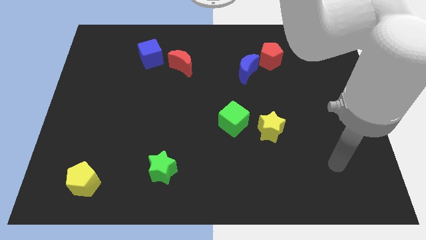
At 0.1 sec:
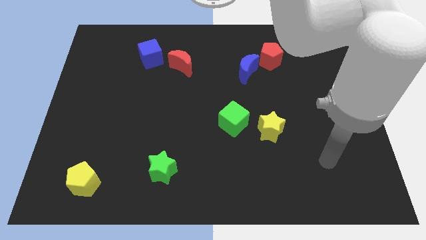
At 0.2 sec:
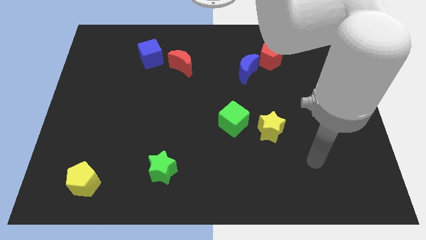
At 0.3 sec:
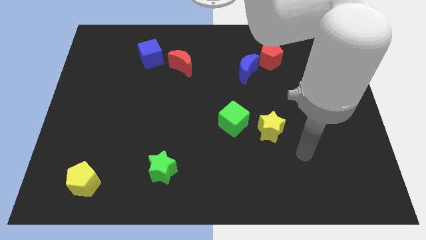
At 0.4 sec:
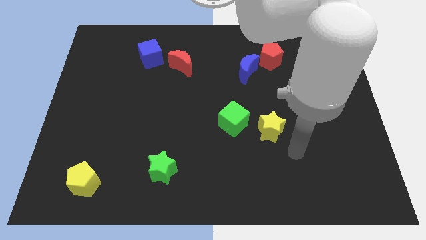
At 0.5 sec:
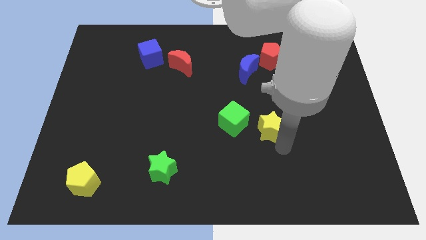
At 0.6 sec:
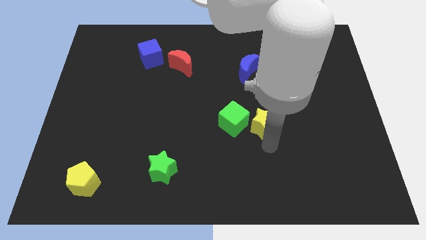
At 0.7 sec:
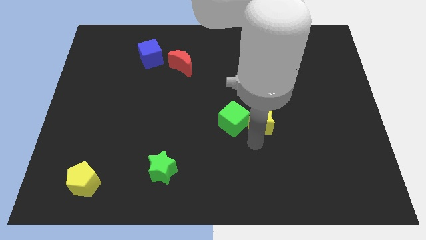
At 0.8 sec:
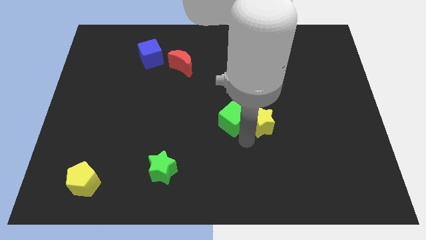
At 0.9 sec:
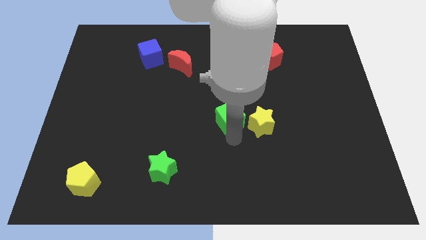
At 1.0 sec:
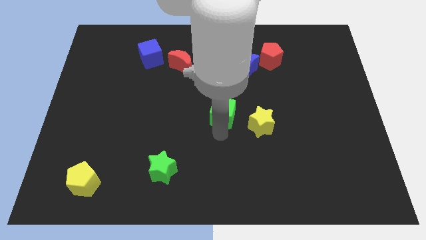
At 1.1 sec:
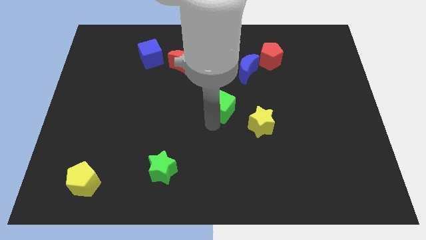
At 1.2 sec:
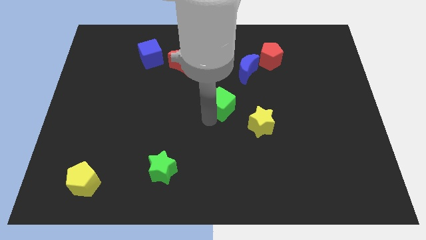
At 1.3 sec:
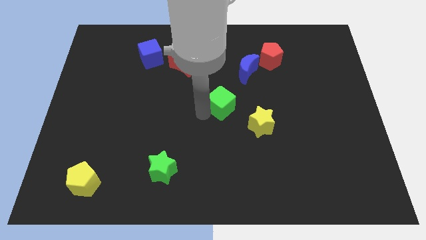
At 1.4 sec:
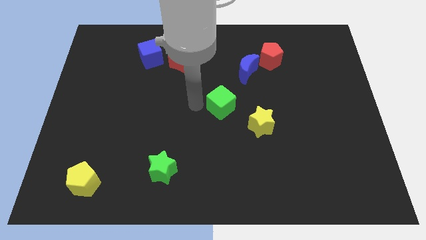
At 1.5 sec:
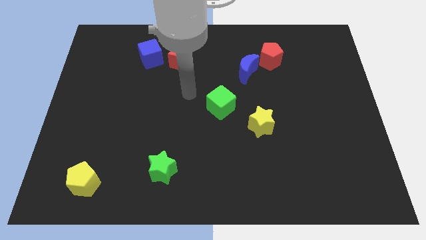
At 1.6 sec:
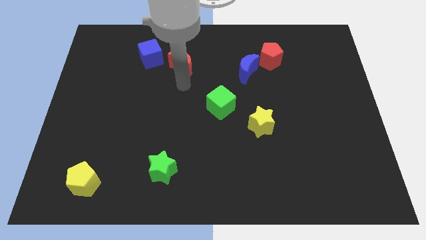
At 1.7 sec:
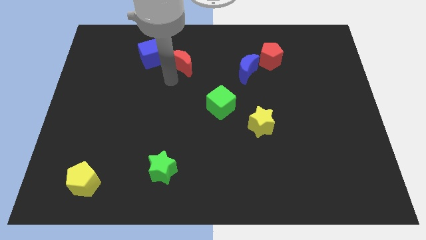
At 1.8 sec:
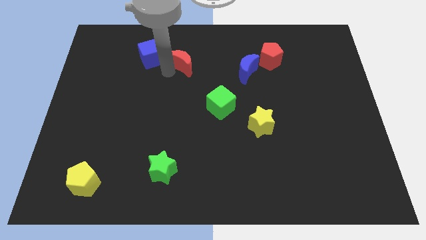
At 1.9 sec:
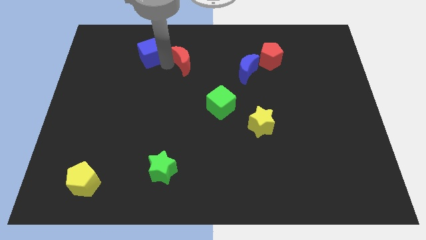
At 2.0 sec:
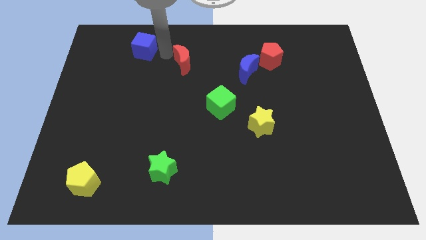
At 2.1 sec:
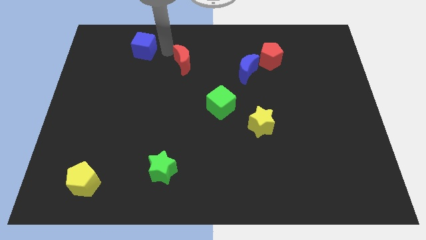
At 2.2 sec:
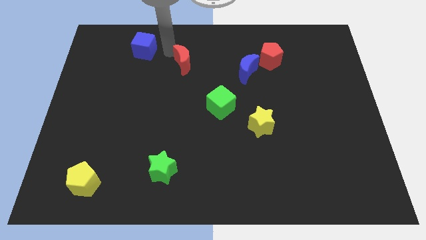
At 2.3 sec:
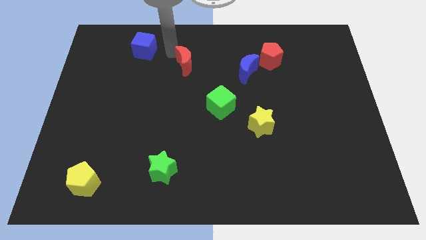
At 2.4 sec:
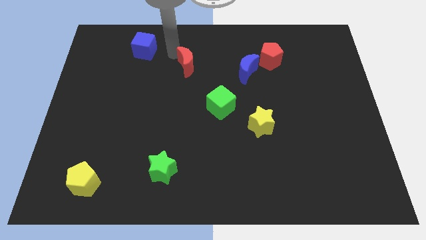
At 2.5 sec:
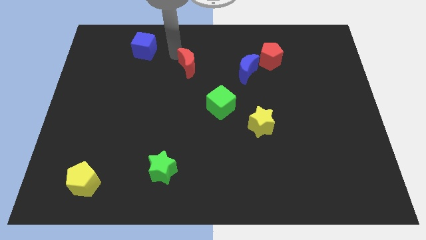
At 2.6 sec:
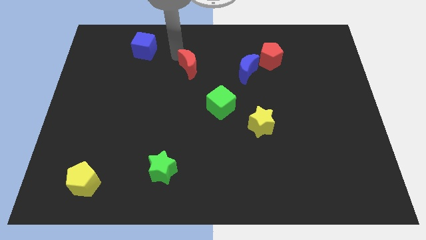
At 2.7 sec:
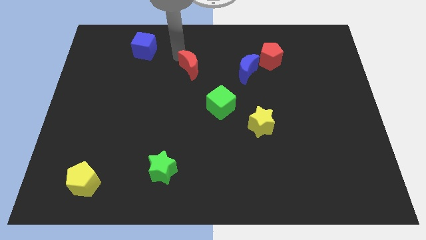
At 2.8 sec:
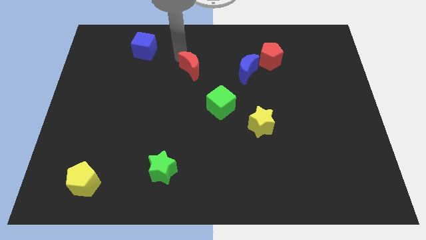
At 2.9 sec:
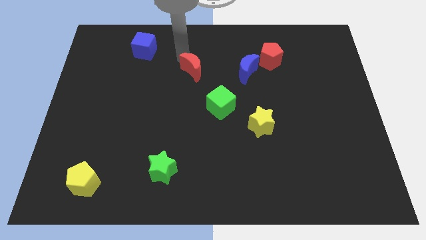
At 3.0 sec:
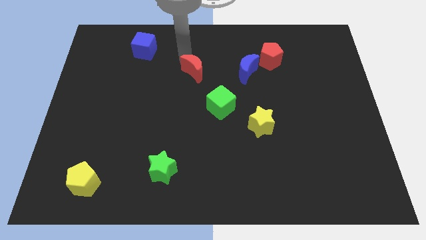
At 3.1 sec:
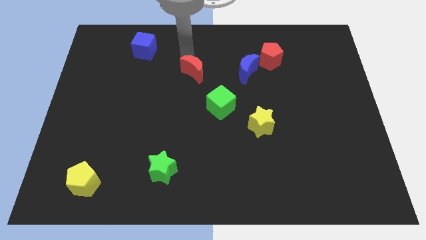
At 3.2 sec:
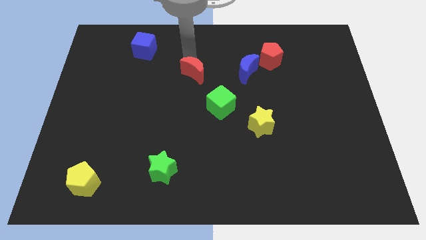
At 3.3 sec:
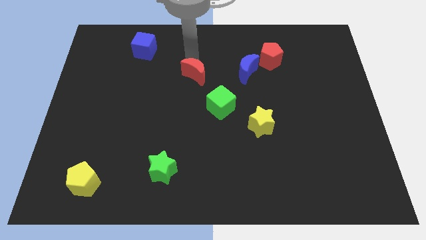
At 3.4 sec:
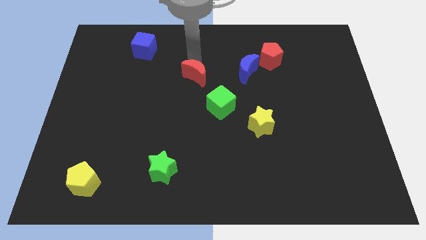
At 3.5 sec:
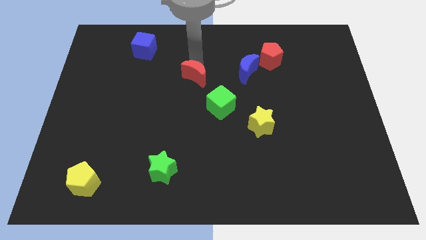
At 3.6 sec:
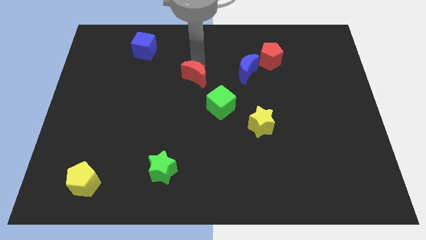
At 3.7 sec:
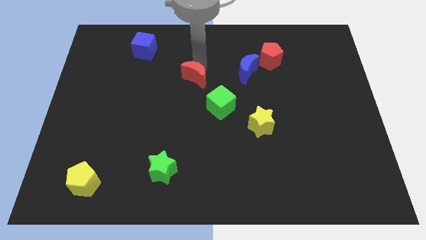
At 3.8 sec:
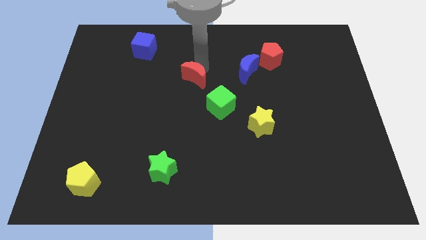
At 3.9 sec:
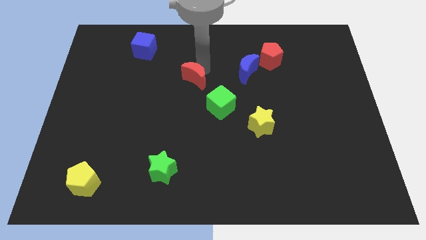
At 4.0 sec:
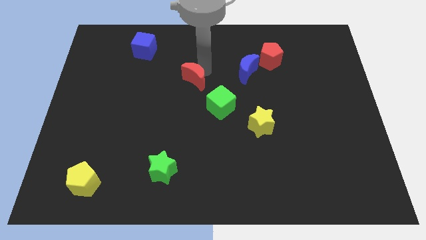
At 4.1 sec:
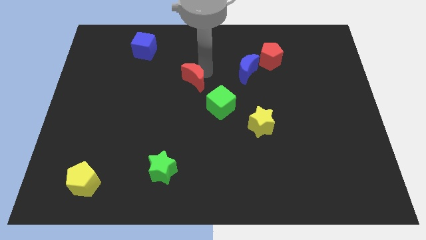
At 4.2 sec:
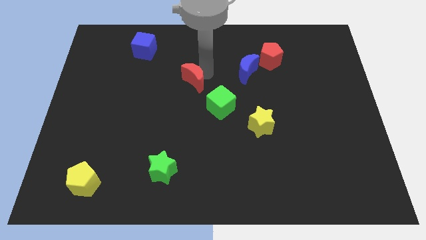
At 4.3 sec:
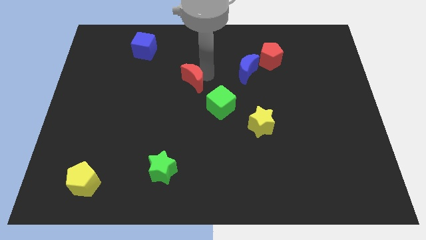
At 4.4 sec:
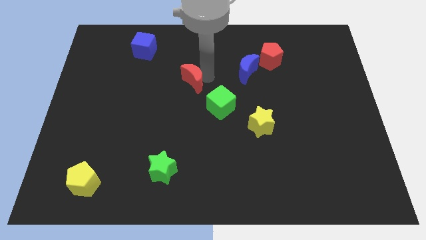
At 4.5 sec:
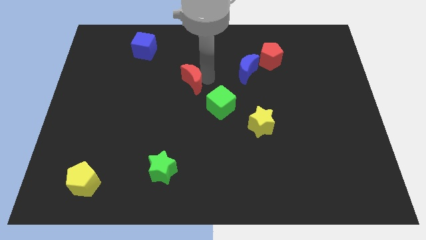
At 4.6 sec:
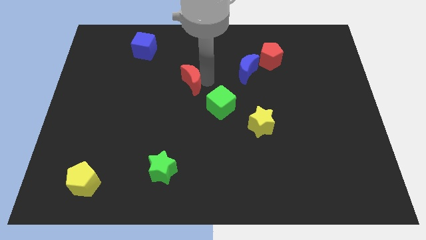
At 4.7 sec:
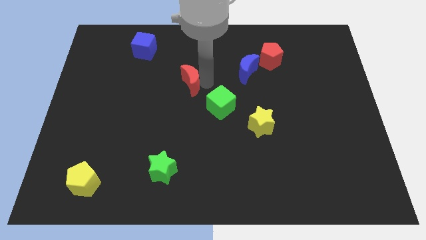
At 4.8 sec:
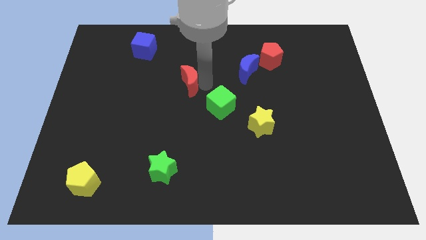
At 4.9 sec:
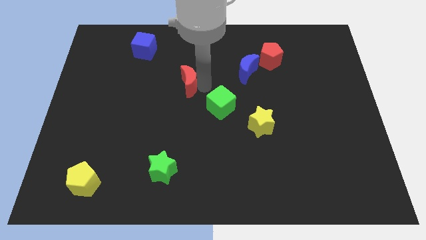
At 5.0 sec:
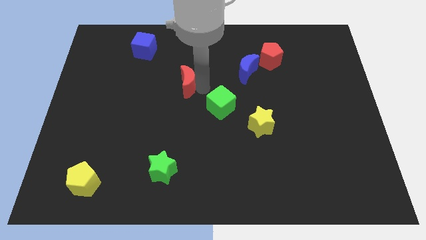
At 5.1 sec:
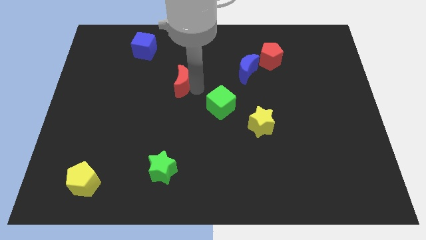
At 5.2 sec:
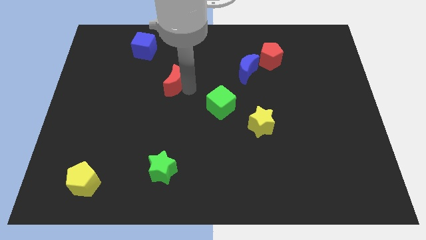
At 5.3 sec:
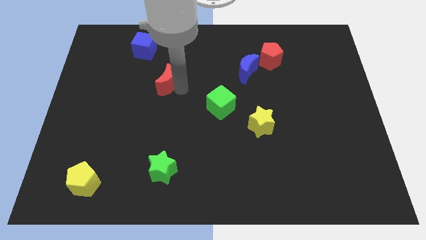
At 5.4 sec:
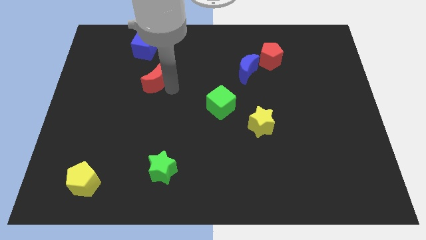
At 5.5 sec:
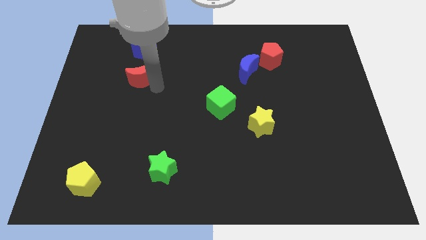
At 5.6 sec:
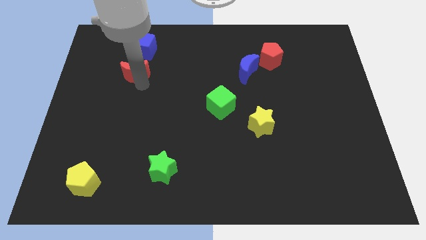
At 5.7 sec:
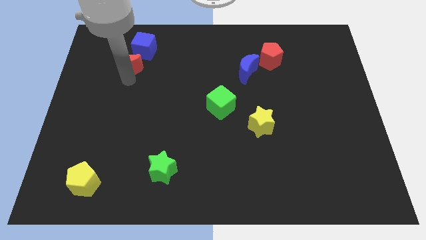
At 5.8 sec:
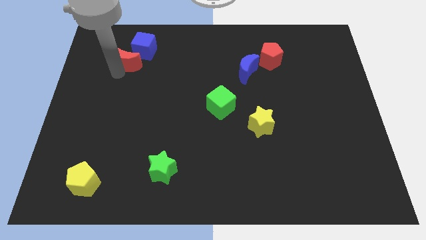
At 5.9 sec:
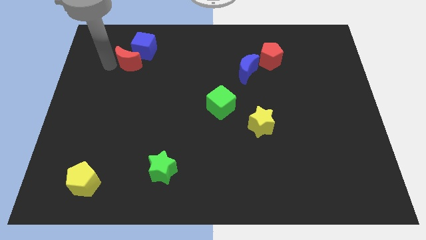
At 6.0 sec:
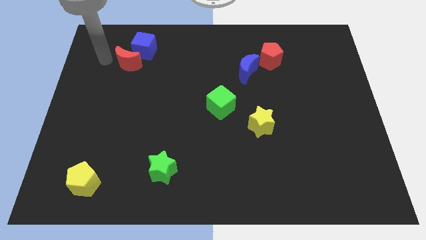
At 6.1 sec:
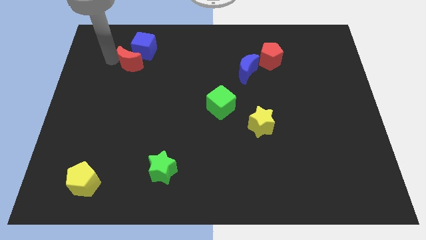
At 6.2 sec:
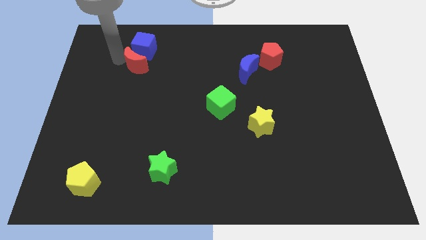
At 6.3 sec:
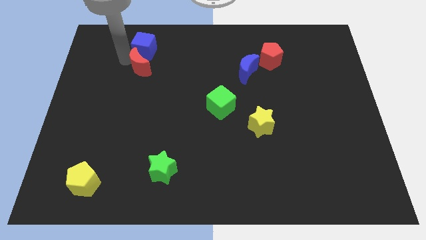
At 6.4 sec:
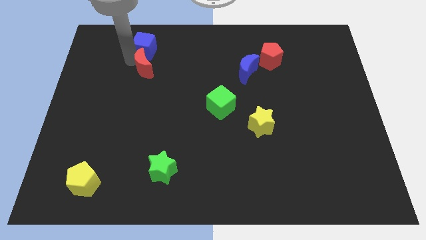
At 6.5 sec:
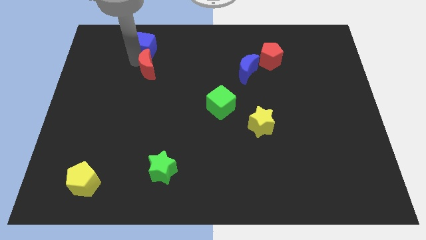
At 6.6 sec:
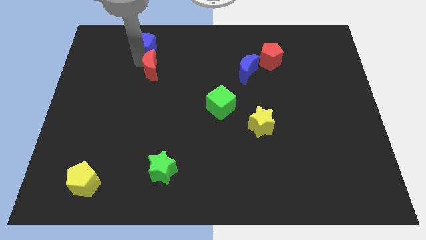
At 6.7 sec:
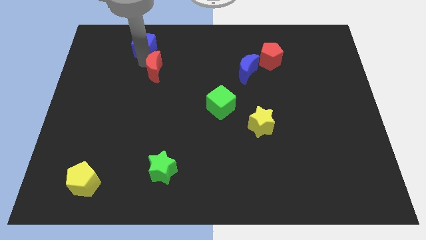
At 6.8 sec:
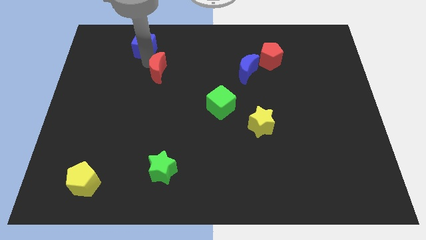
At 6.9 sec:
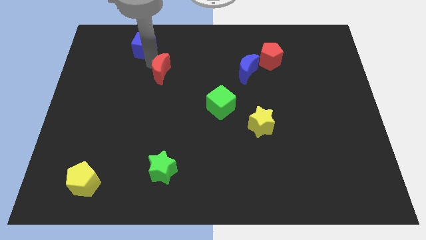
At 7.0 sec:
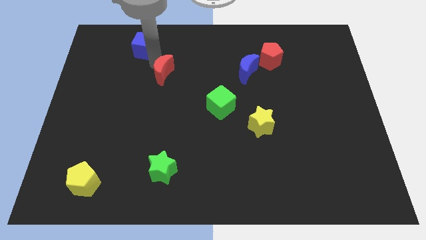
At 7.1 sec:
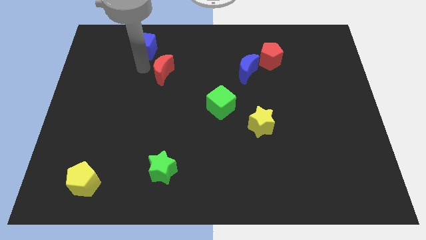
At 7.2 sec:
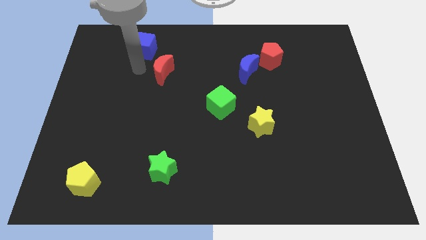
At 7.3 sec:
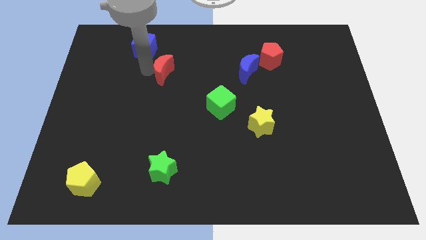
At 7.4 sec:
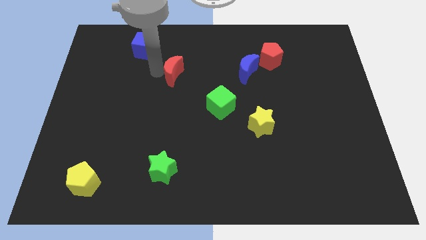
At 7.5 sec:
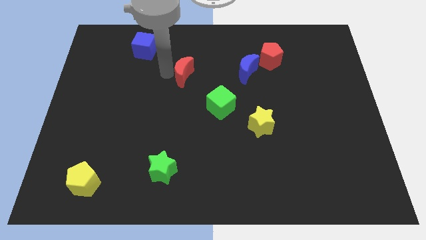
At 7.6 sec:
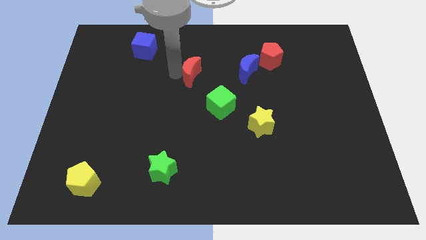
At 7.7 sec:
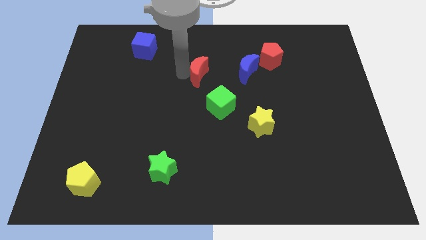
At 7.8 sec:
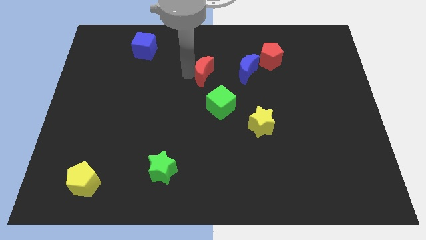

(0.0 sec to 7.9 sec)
push the red moon to the top side of the green cube
